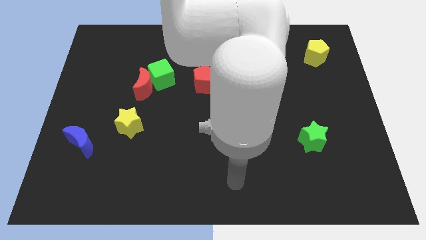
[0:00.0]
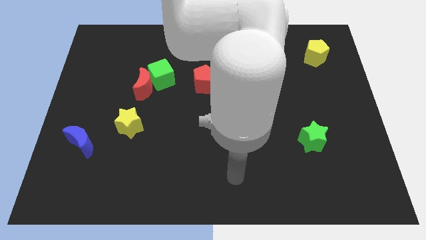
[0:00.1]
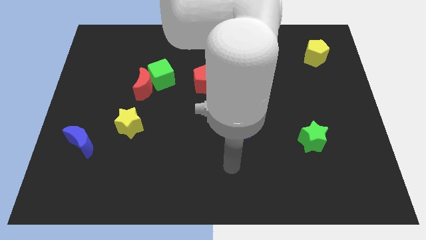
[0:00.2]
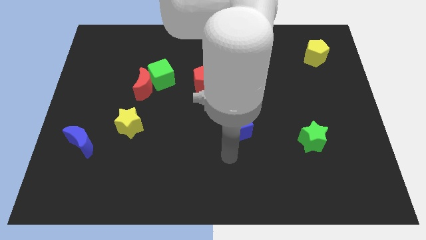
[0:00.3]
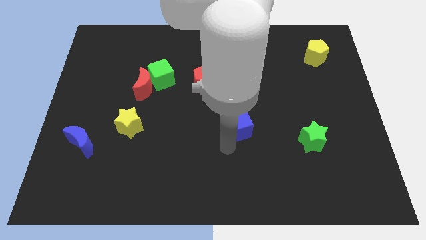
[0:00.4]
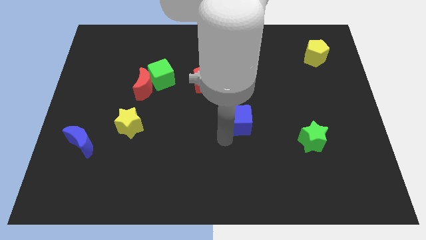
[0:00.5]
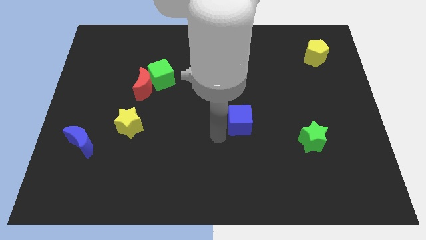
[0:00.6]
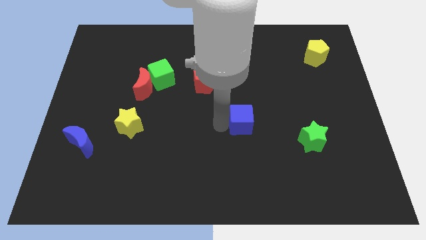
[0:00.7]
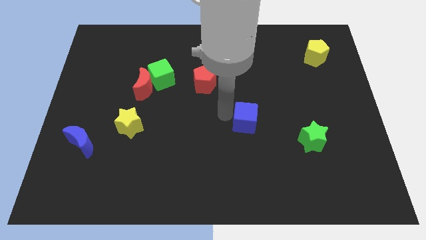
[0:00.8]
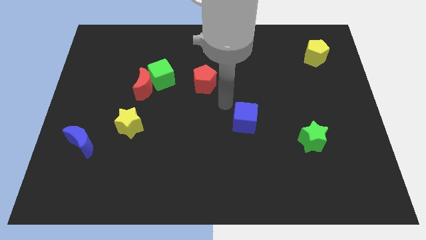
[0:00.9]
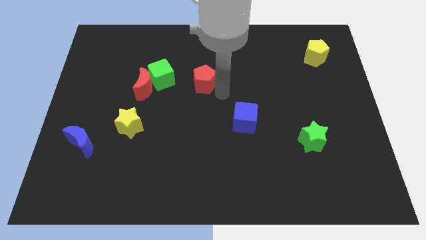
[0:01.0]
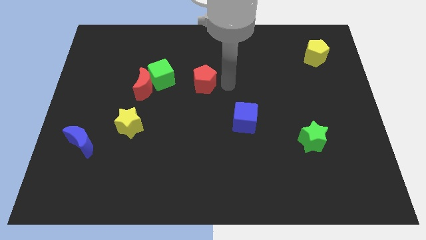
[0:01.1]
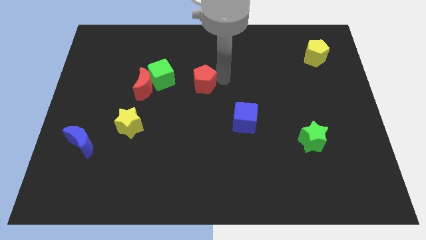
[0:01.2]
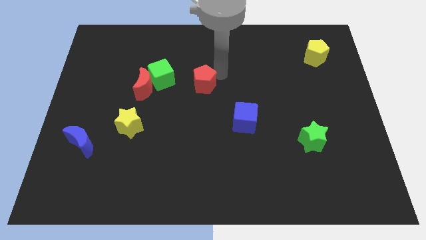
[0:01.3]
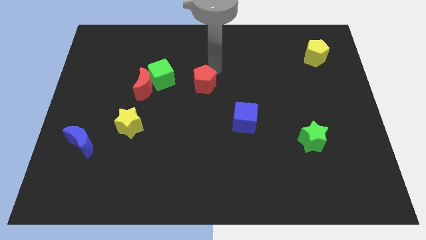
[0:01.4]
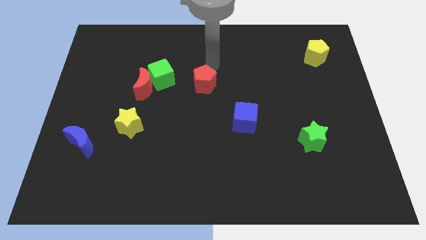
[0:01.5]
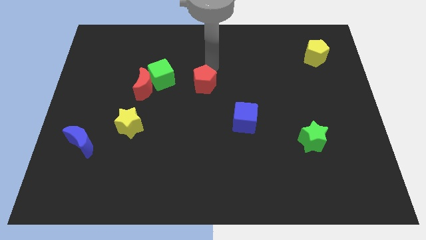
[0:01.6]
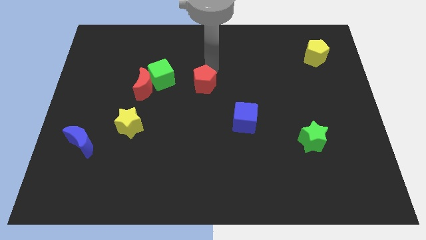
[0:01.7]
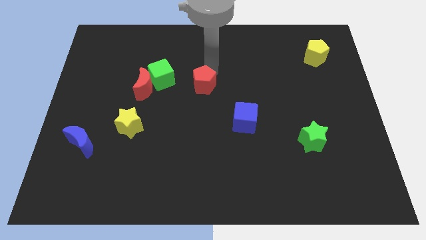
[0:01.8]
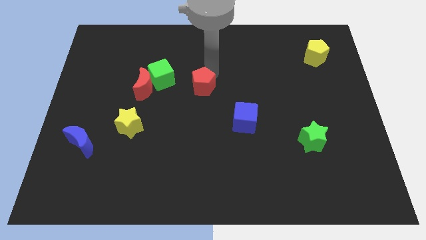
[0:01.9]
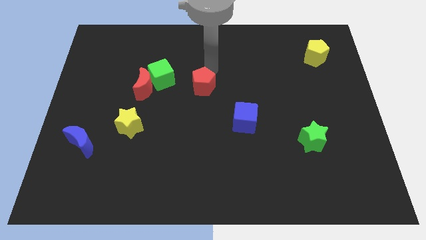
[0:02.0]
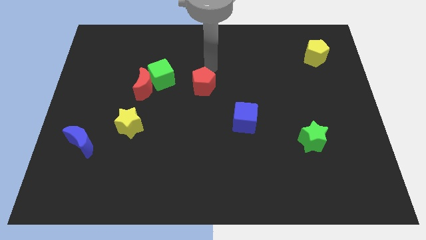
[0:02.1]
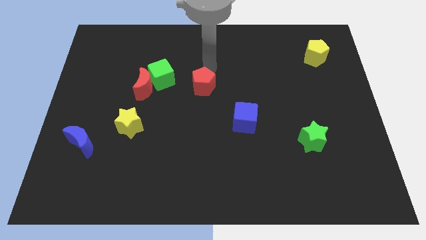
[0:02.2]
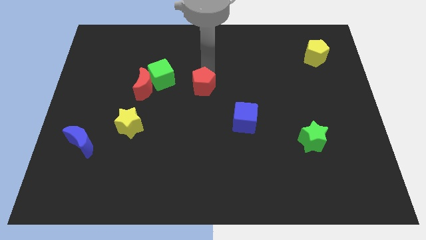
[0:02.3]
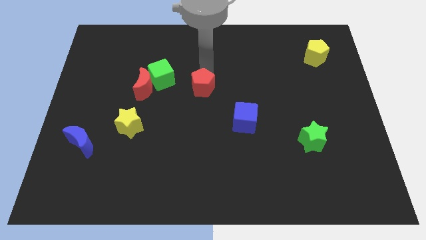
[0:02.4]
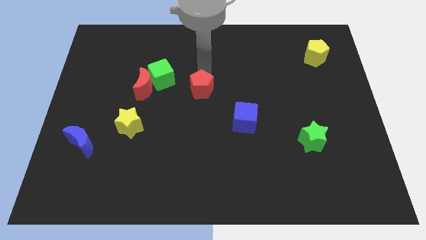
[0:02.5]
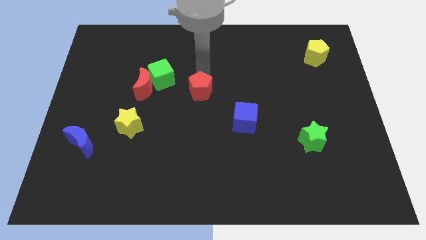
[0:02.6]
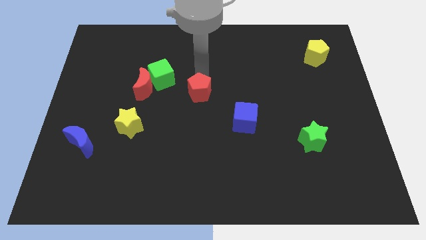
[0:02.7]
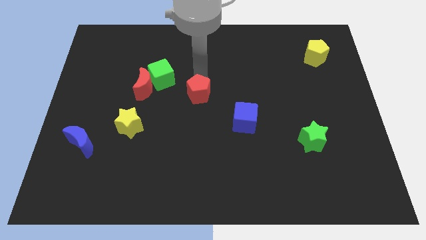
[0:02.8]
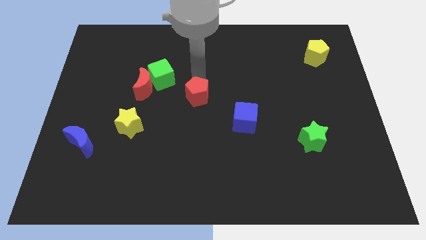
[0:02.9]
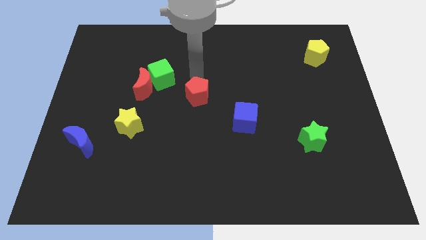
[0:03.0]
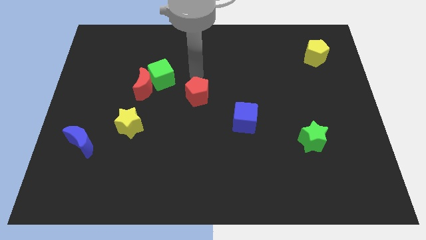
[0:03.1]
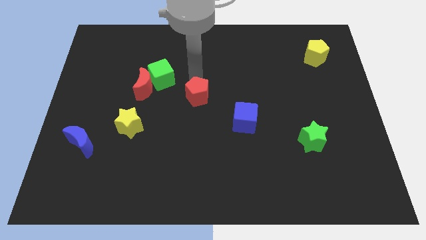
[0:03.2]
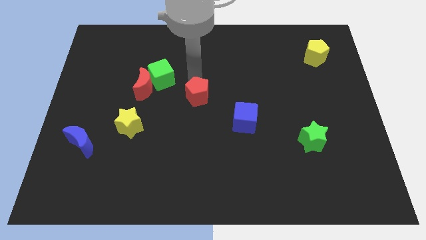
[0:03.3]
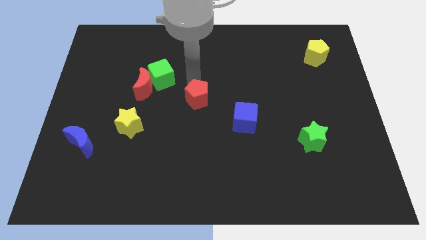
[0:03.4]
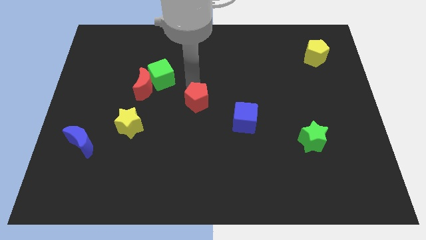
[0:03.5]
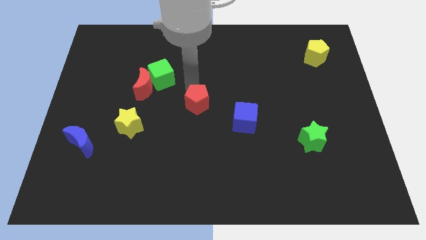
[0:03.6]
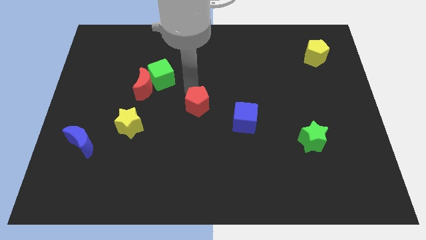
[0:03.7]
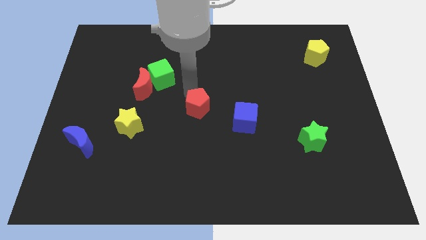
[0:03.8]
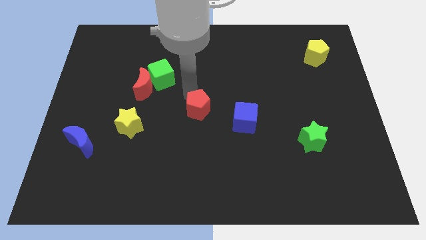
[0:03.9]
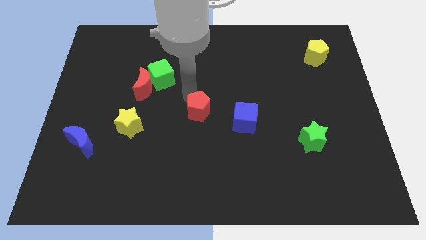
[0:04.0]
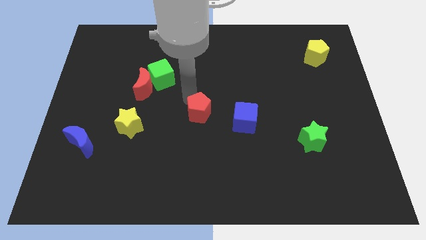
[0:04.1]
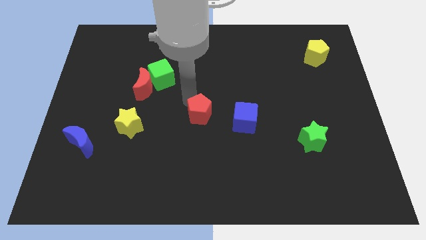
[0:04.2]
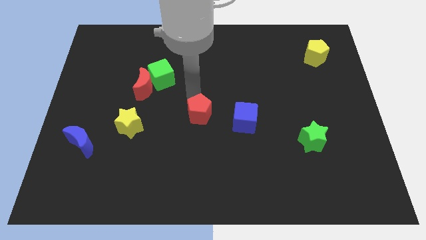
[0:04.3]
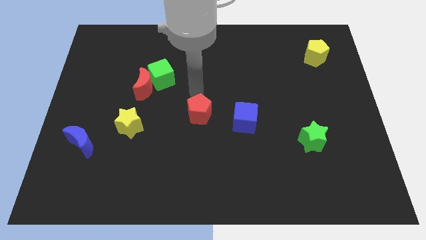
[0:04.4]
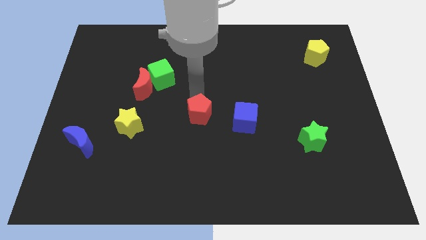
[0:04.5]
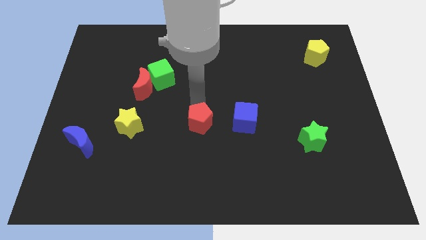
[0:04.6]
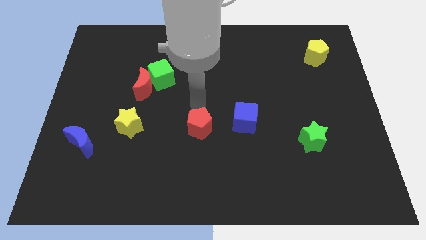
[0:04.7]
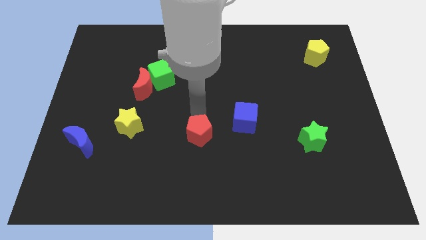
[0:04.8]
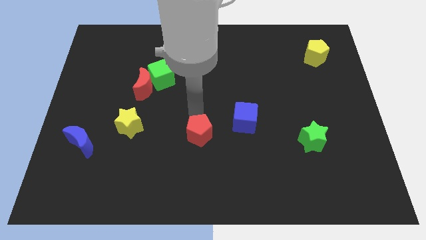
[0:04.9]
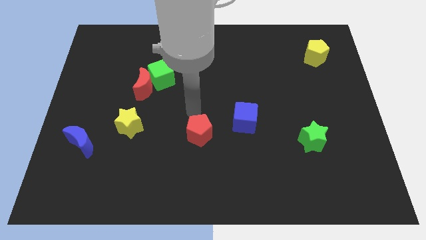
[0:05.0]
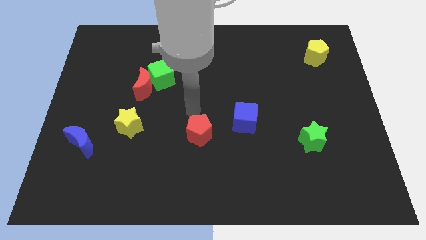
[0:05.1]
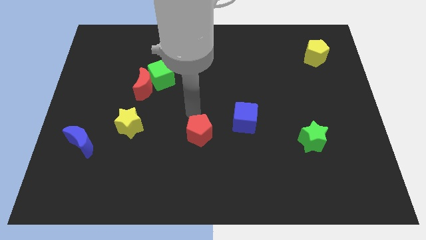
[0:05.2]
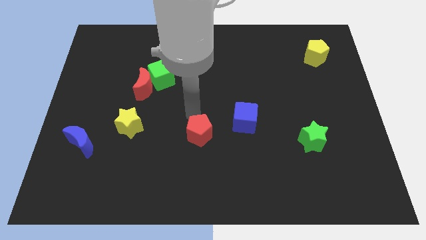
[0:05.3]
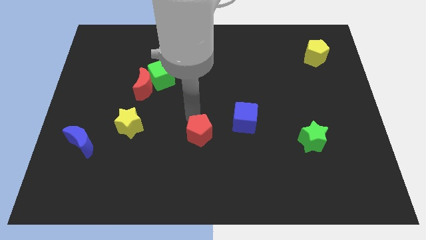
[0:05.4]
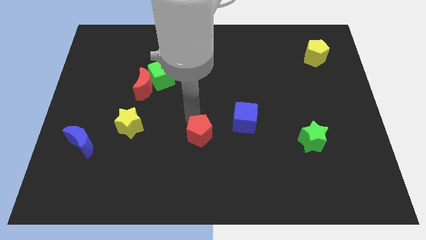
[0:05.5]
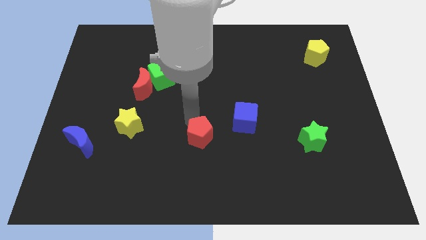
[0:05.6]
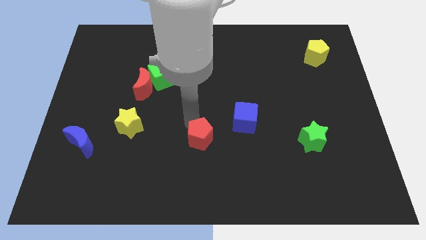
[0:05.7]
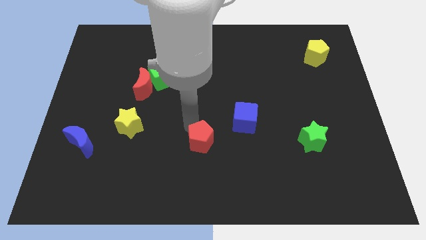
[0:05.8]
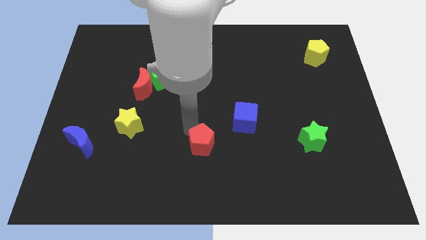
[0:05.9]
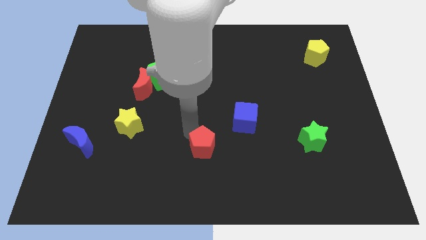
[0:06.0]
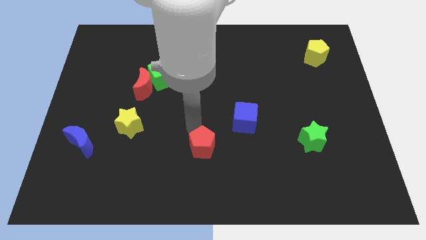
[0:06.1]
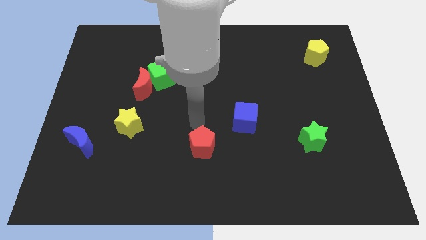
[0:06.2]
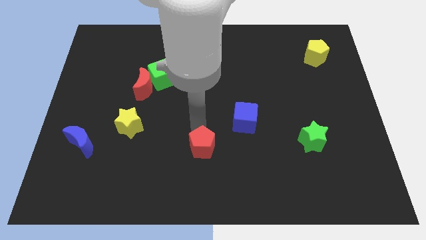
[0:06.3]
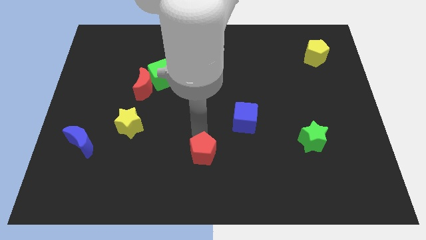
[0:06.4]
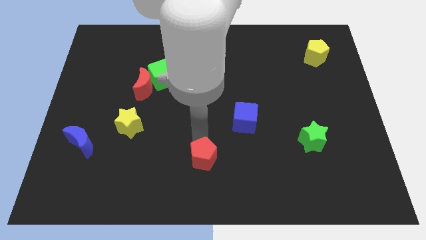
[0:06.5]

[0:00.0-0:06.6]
slide the red pentagon to the bottom

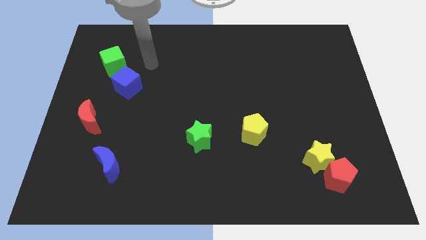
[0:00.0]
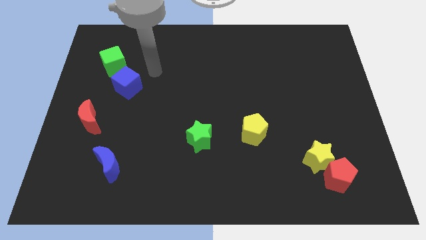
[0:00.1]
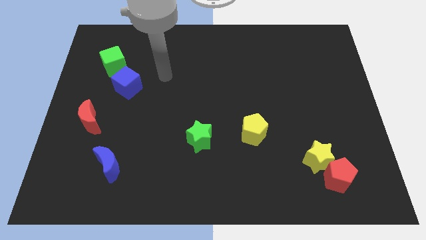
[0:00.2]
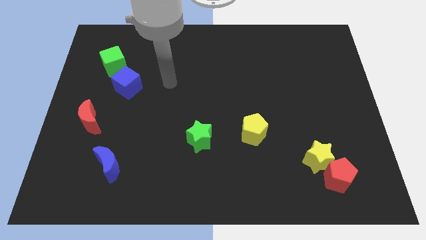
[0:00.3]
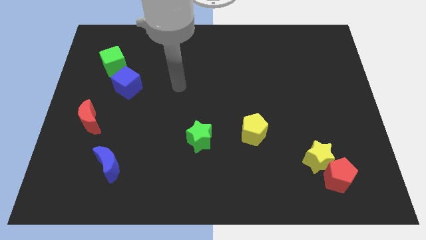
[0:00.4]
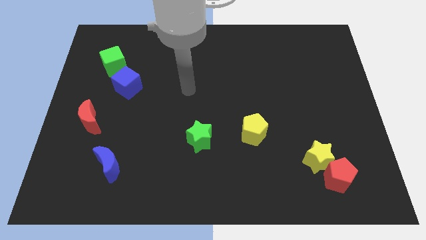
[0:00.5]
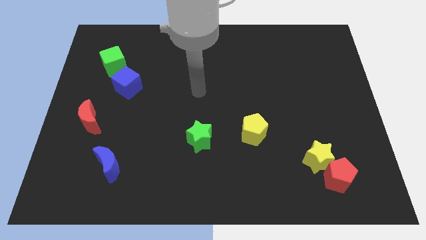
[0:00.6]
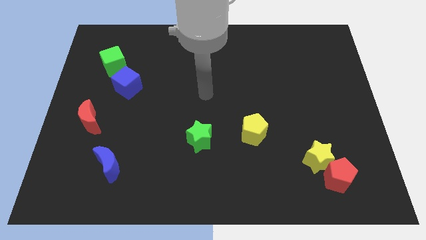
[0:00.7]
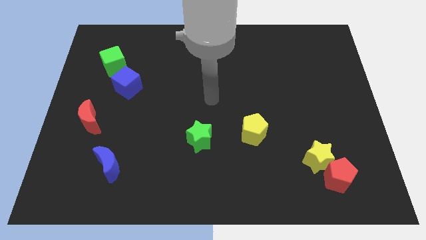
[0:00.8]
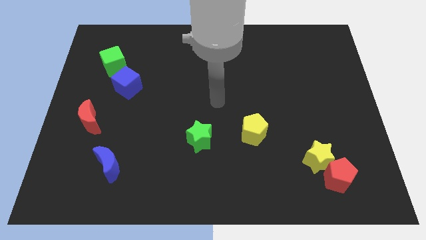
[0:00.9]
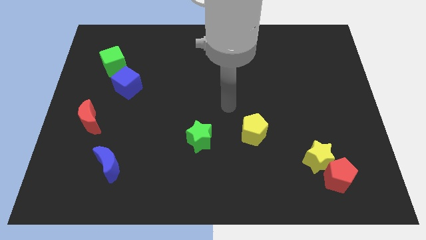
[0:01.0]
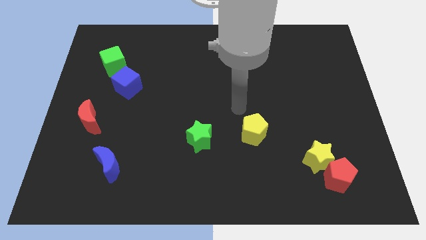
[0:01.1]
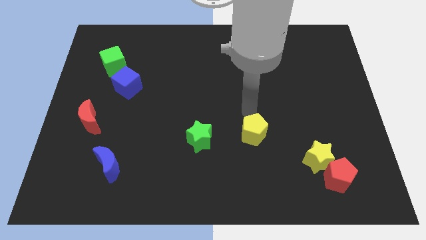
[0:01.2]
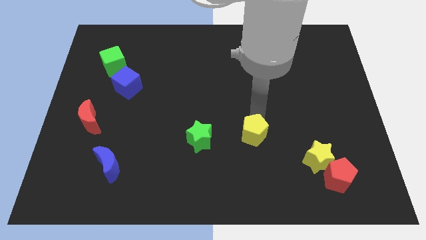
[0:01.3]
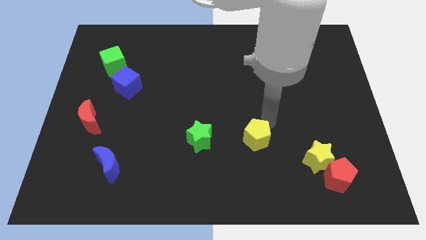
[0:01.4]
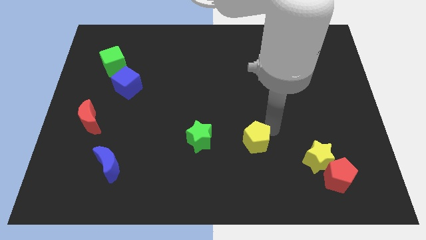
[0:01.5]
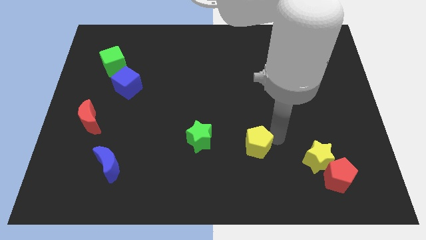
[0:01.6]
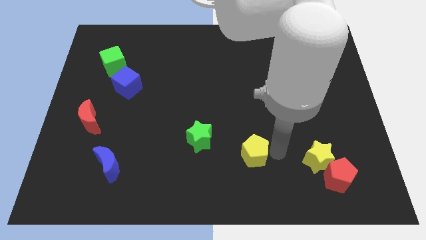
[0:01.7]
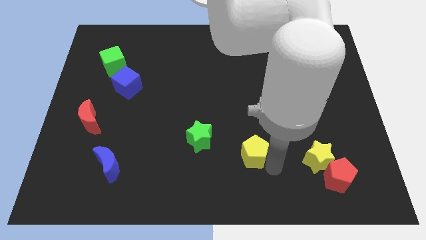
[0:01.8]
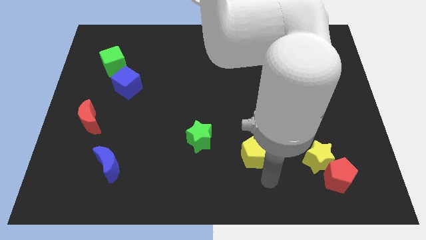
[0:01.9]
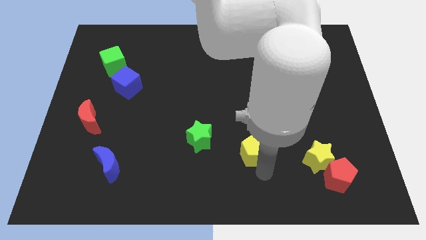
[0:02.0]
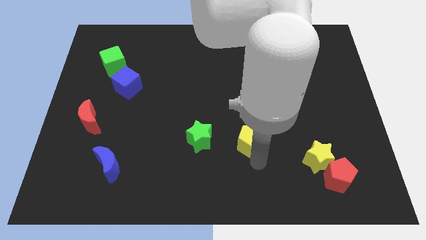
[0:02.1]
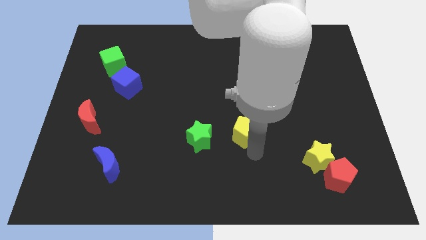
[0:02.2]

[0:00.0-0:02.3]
move the yellow pentagon to the center of the board
